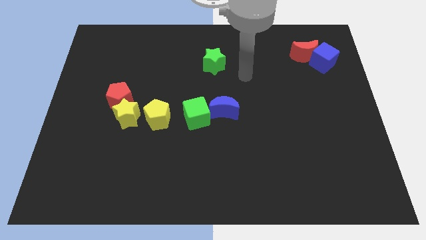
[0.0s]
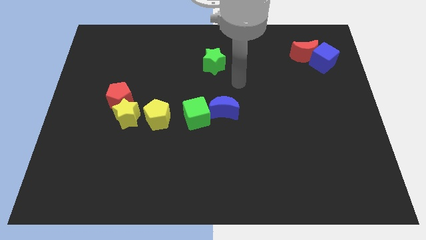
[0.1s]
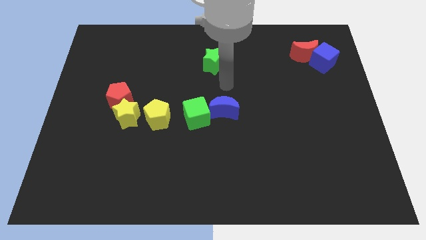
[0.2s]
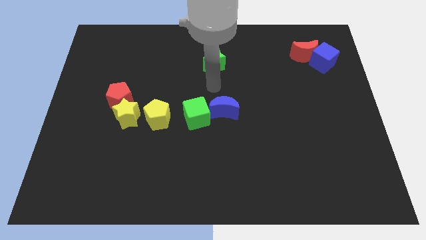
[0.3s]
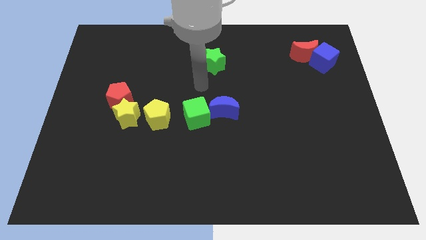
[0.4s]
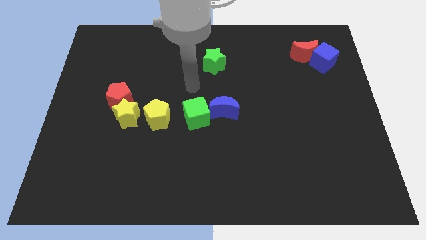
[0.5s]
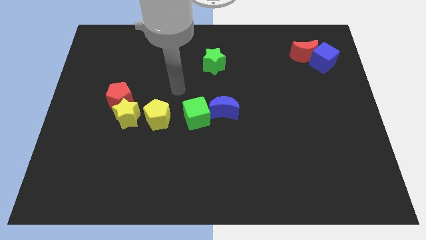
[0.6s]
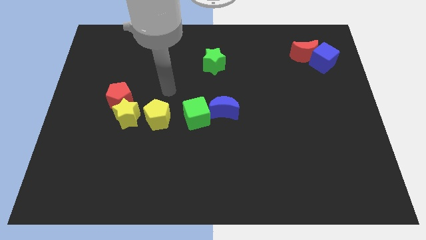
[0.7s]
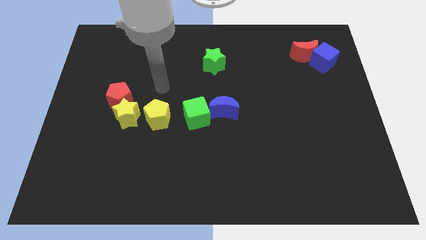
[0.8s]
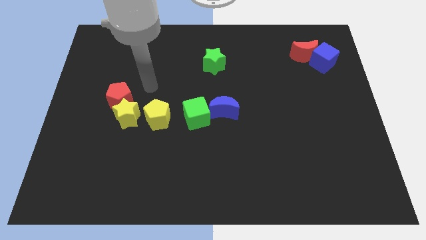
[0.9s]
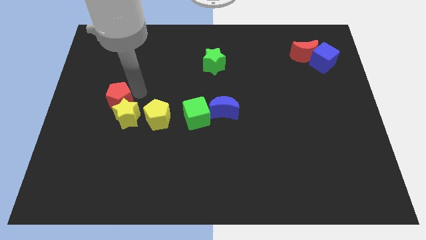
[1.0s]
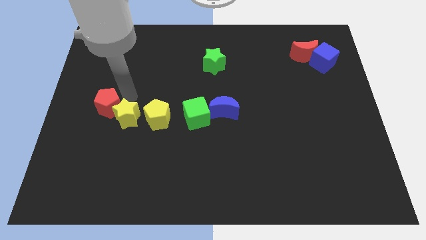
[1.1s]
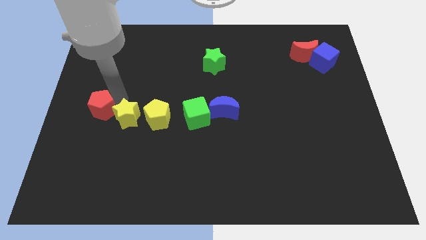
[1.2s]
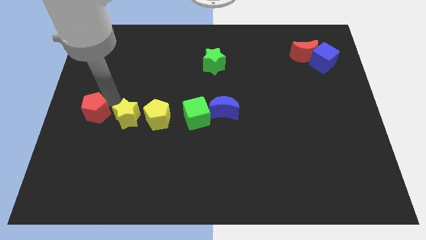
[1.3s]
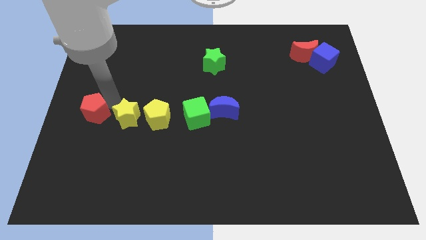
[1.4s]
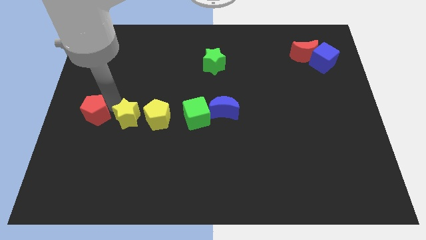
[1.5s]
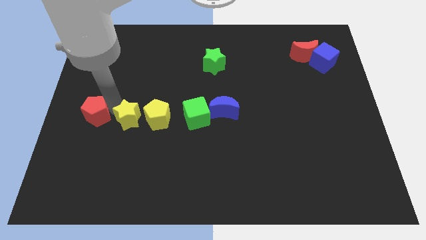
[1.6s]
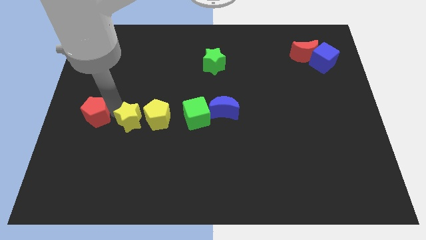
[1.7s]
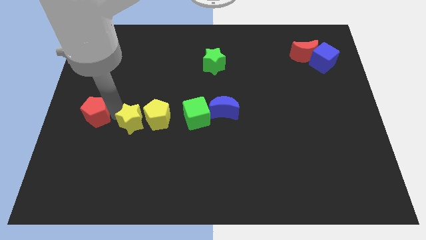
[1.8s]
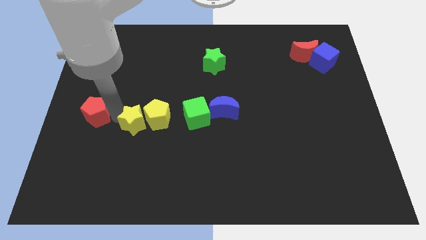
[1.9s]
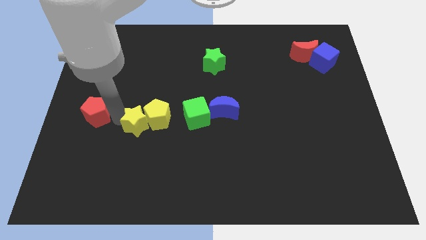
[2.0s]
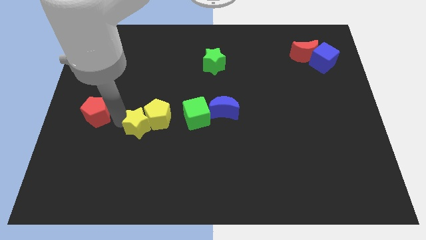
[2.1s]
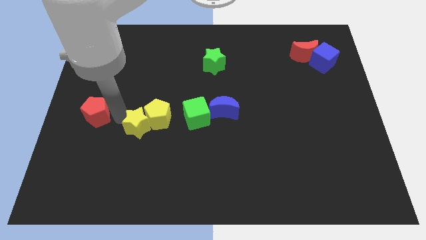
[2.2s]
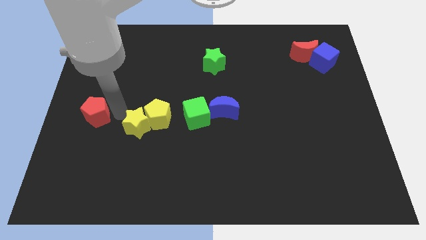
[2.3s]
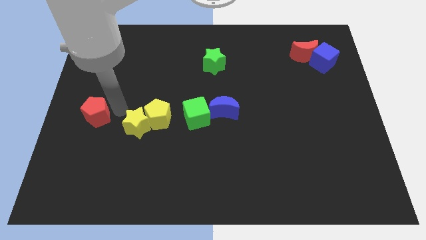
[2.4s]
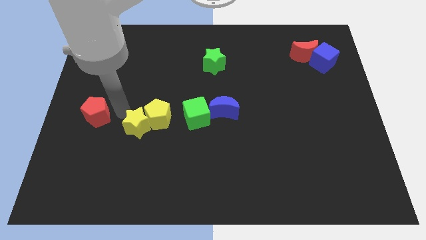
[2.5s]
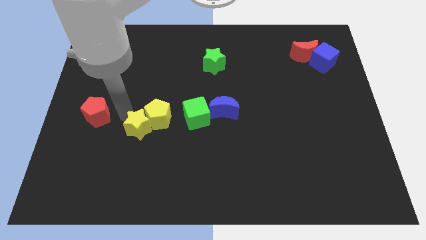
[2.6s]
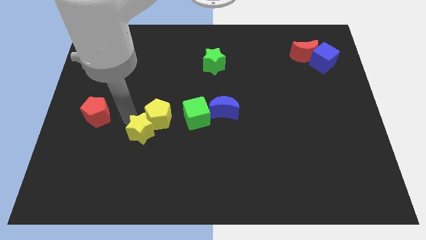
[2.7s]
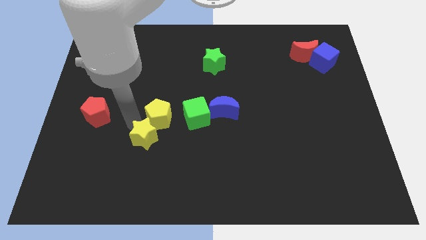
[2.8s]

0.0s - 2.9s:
slide the yellow star a little bit diagonally downwards and right

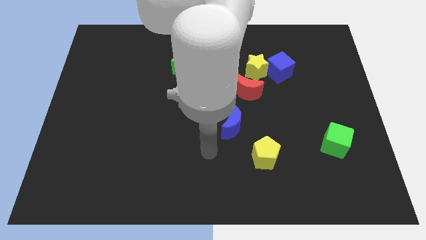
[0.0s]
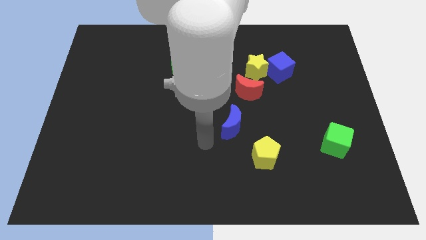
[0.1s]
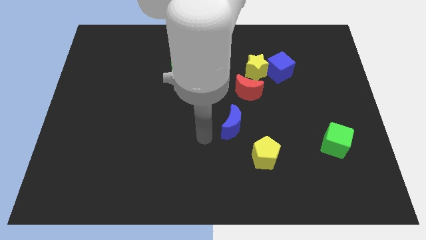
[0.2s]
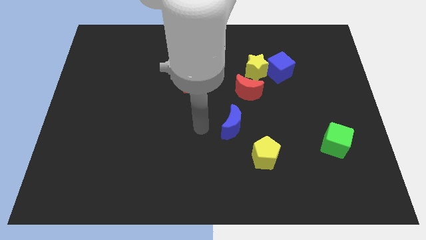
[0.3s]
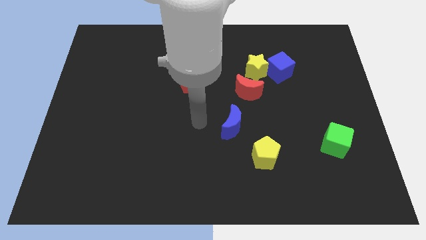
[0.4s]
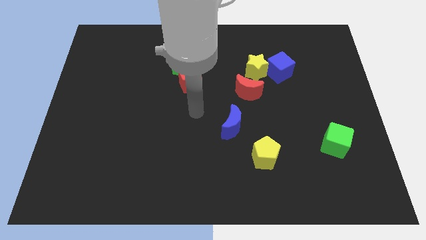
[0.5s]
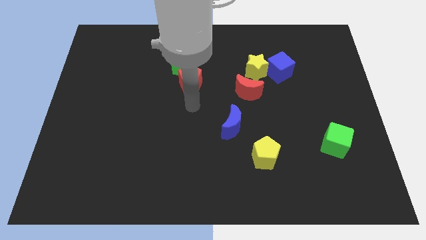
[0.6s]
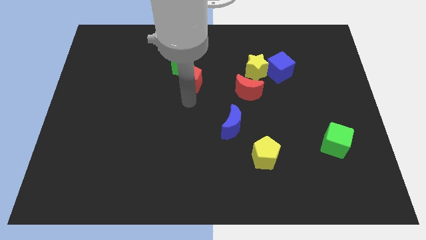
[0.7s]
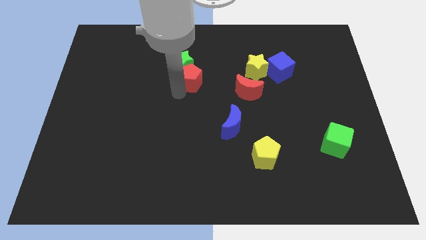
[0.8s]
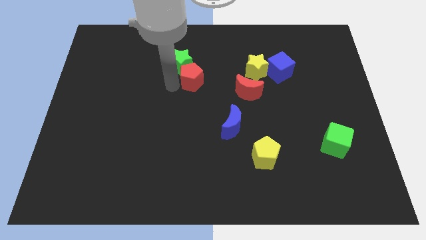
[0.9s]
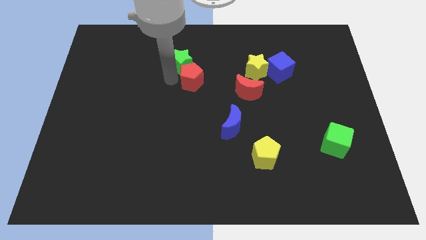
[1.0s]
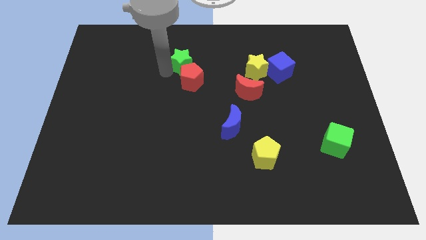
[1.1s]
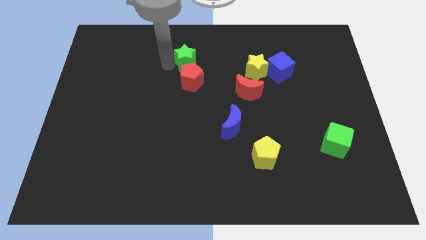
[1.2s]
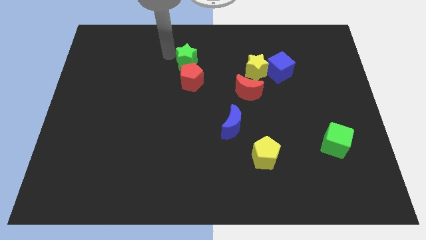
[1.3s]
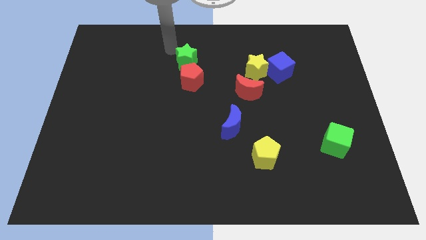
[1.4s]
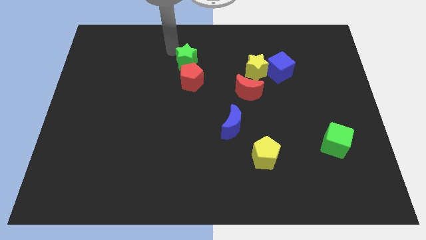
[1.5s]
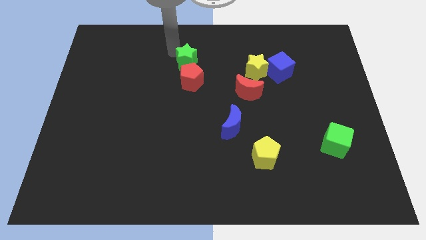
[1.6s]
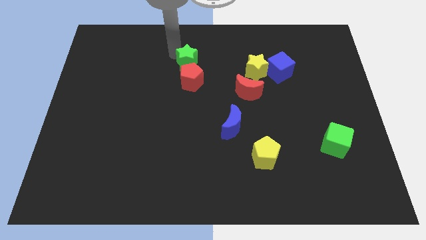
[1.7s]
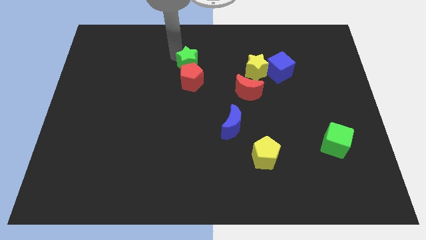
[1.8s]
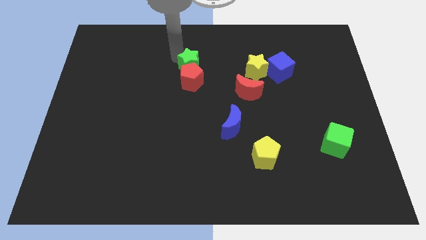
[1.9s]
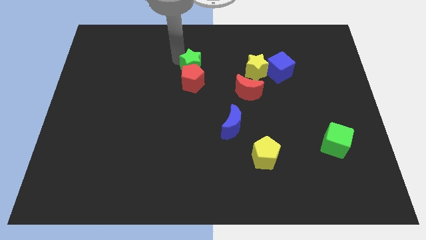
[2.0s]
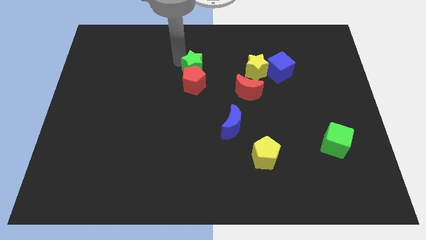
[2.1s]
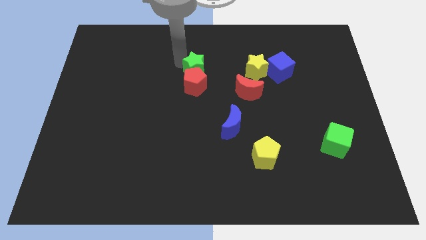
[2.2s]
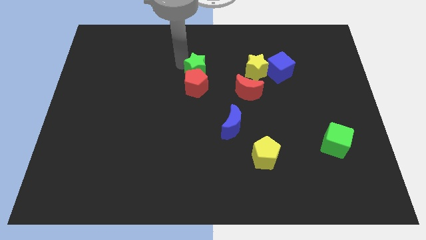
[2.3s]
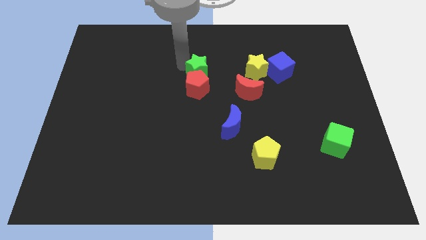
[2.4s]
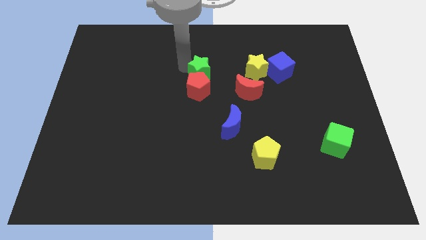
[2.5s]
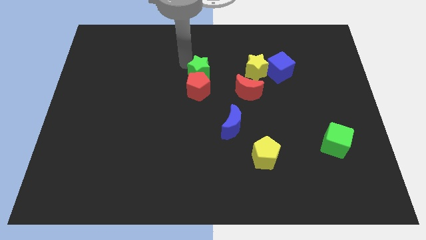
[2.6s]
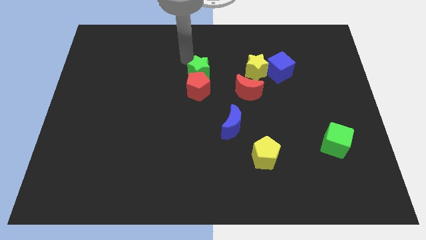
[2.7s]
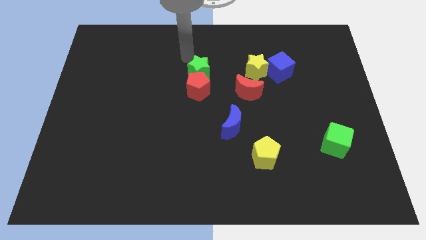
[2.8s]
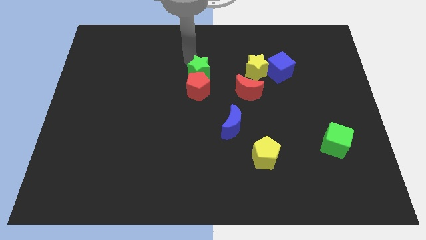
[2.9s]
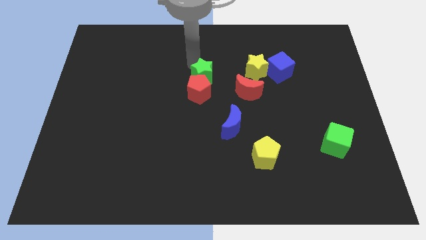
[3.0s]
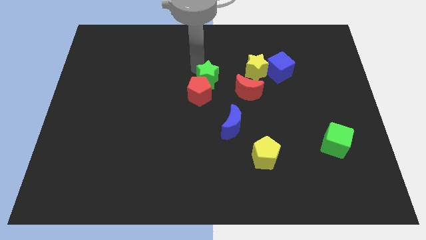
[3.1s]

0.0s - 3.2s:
push the green star downwards and right a little

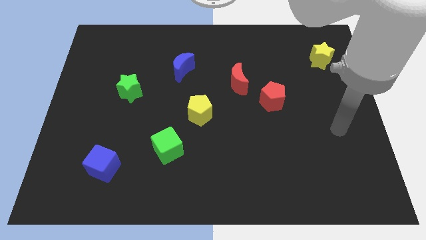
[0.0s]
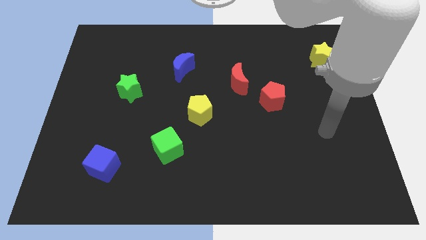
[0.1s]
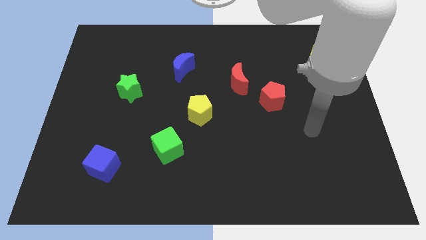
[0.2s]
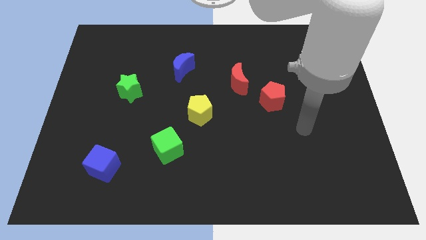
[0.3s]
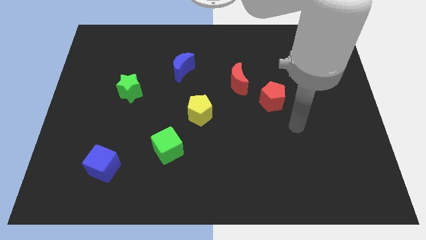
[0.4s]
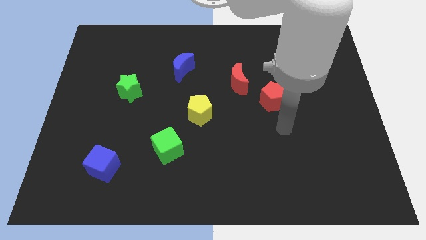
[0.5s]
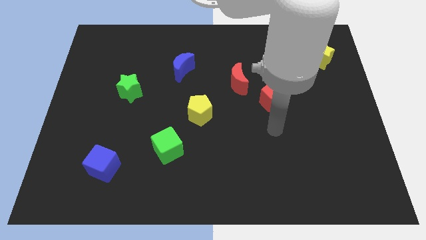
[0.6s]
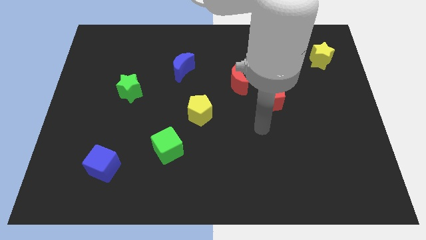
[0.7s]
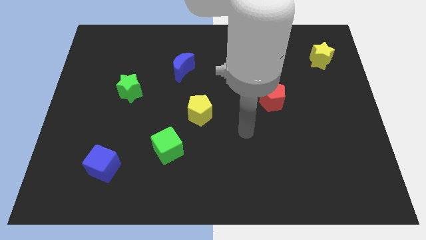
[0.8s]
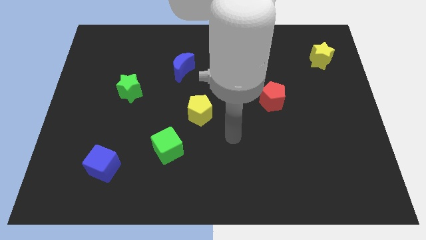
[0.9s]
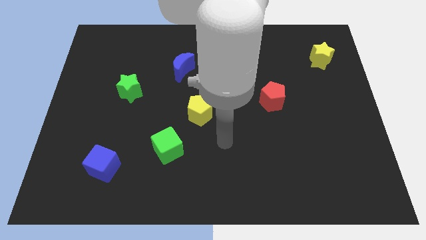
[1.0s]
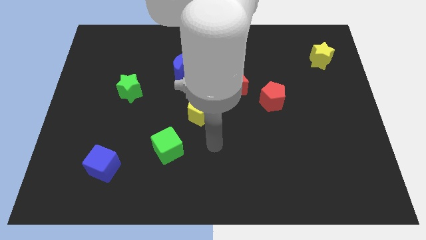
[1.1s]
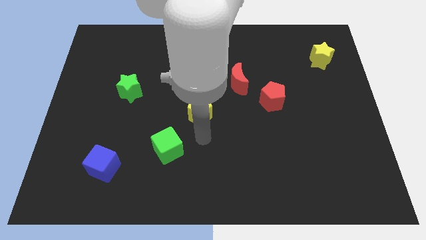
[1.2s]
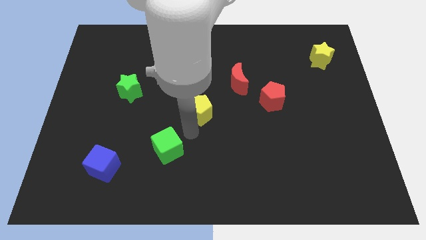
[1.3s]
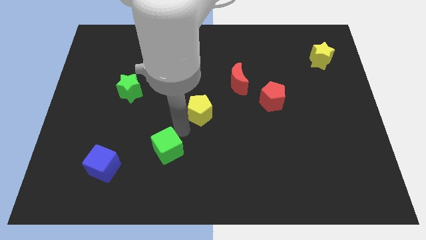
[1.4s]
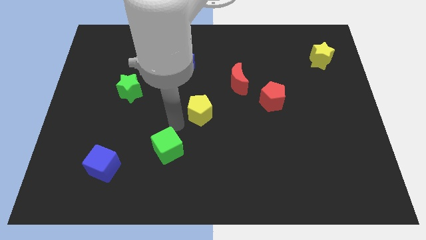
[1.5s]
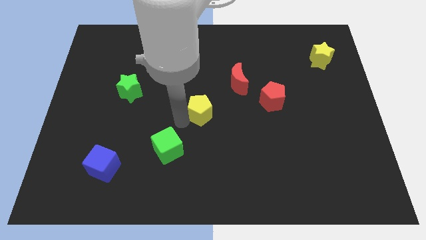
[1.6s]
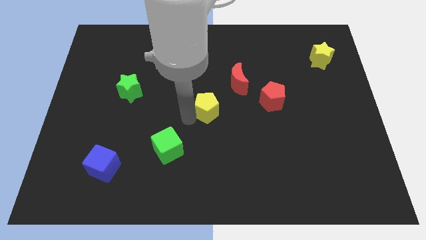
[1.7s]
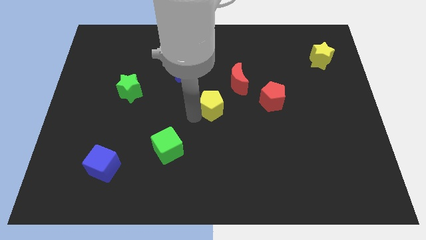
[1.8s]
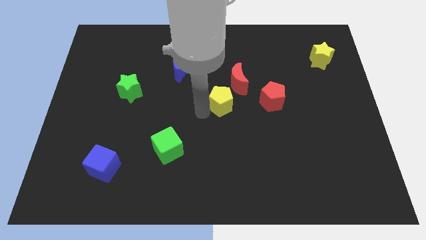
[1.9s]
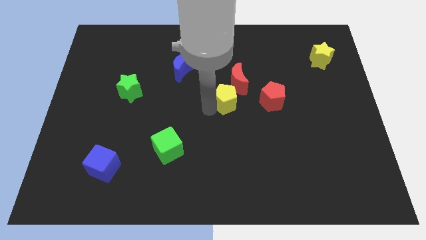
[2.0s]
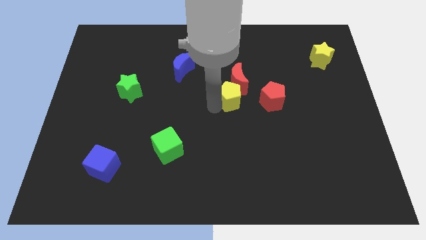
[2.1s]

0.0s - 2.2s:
slide the yellow pentagon up and then to the right somewhat
